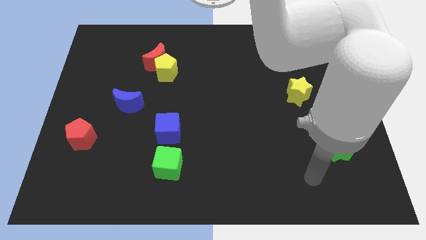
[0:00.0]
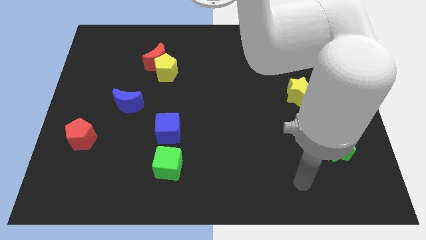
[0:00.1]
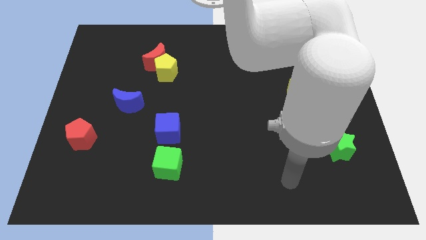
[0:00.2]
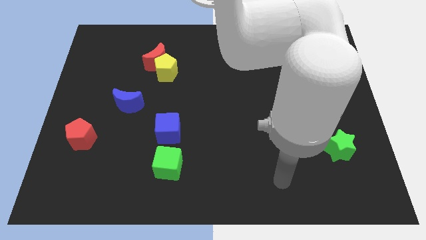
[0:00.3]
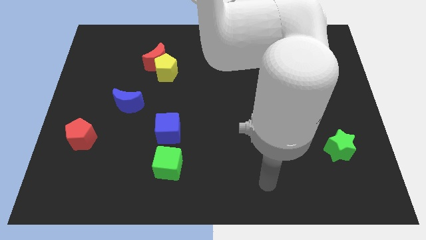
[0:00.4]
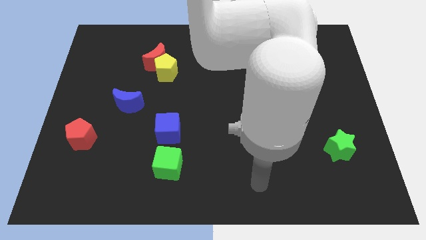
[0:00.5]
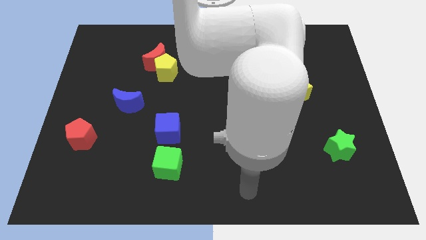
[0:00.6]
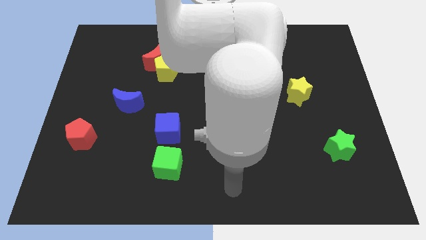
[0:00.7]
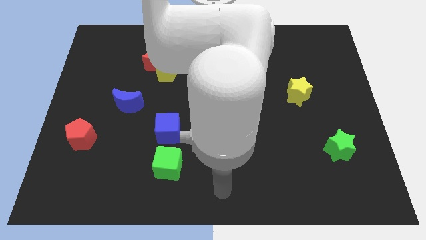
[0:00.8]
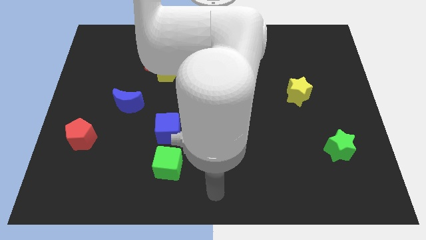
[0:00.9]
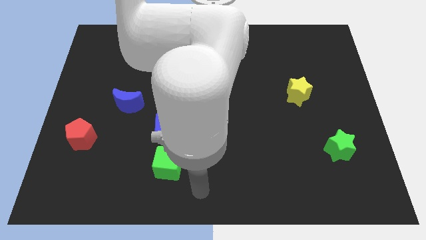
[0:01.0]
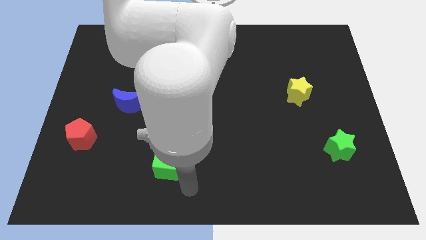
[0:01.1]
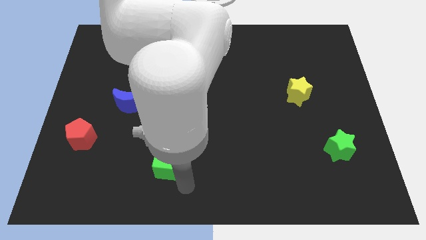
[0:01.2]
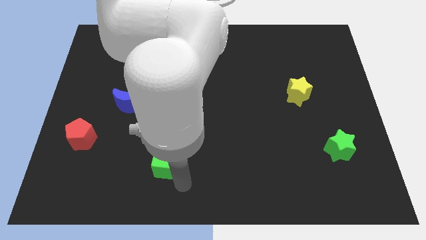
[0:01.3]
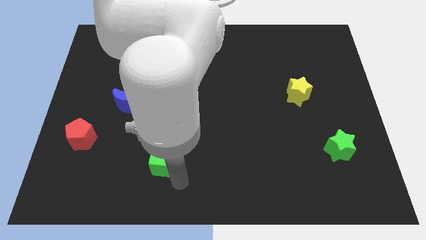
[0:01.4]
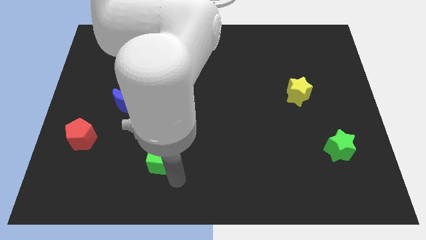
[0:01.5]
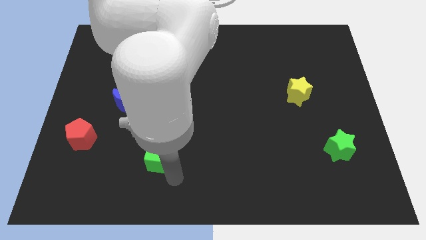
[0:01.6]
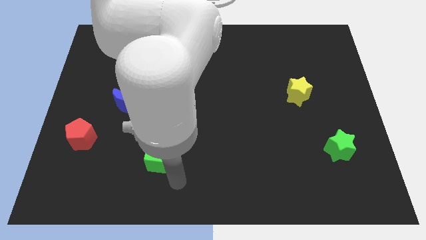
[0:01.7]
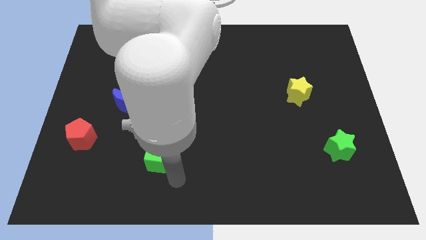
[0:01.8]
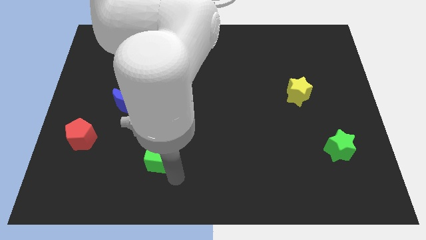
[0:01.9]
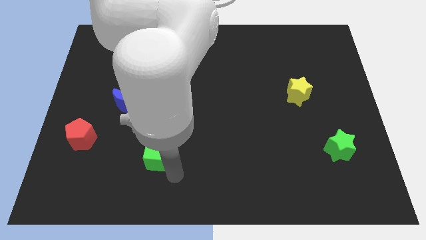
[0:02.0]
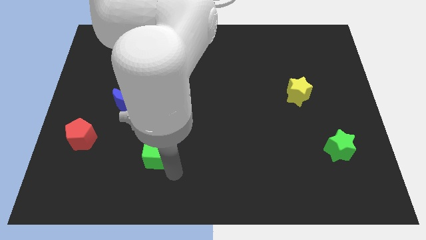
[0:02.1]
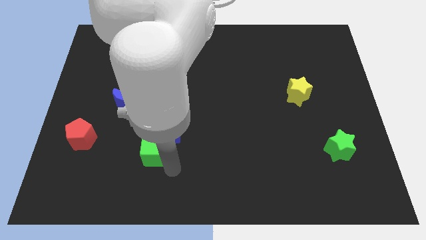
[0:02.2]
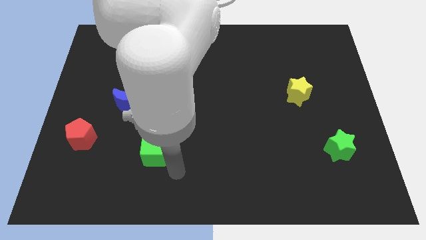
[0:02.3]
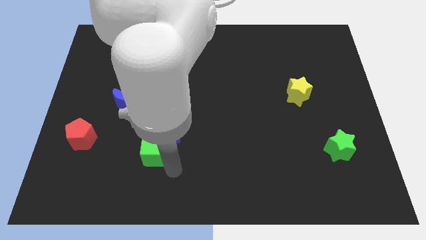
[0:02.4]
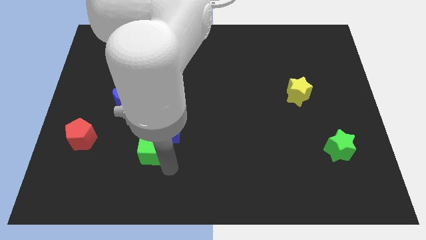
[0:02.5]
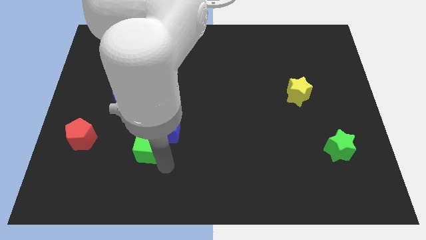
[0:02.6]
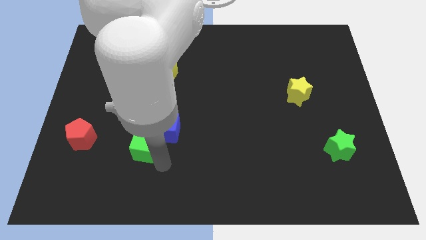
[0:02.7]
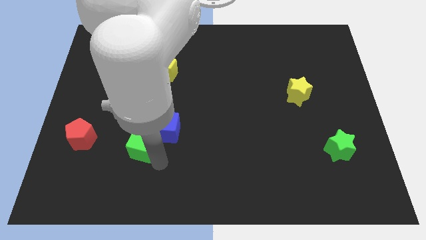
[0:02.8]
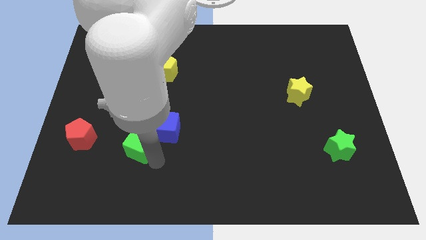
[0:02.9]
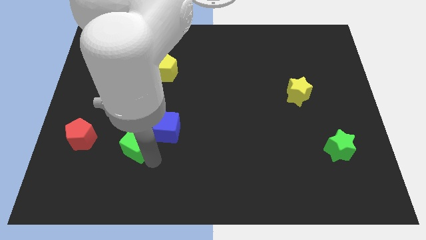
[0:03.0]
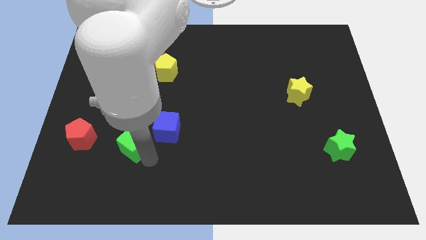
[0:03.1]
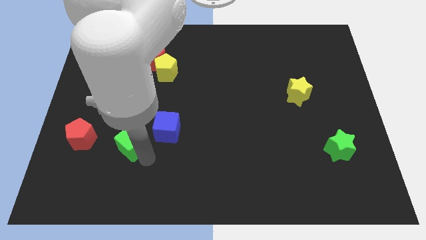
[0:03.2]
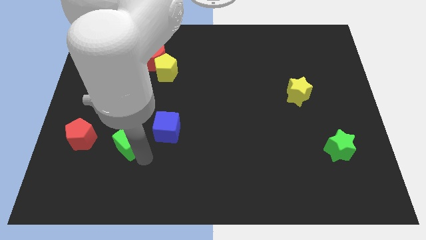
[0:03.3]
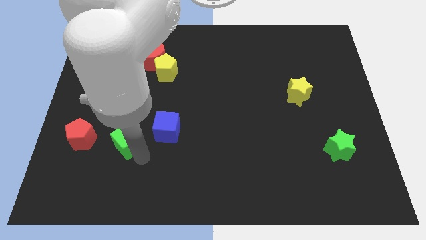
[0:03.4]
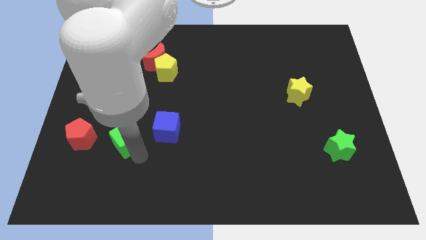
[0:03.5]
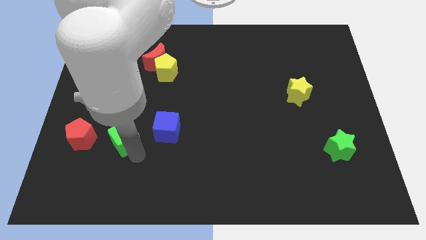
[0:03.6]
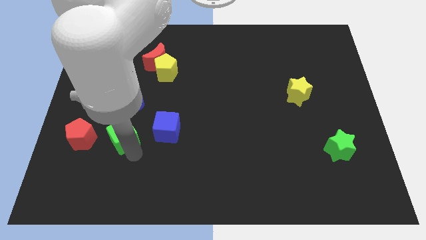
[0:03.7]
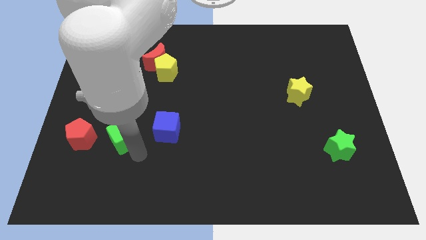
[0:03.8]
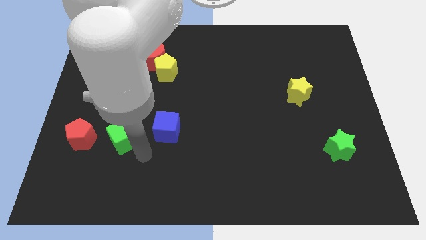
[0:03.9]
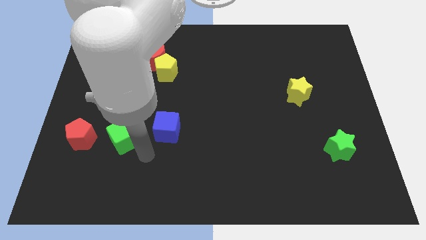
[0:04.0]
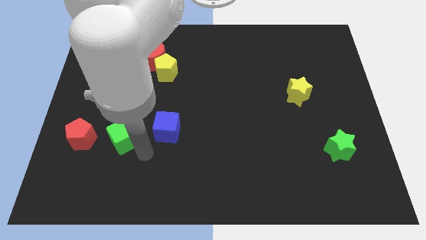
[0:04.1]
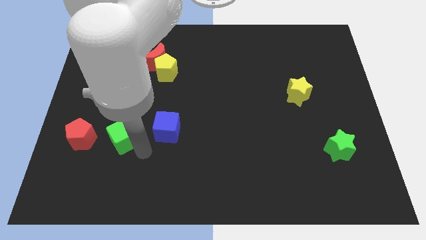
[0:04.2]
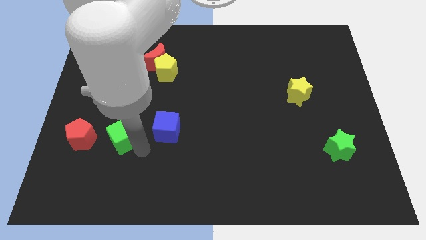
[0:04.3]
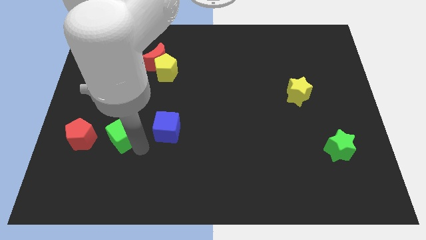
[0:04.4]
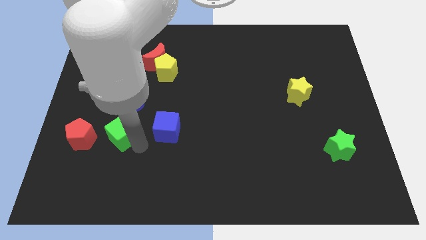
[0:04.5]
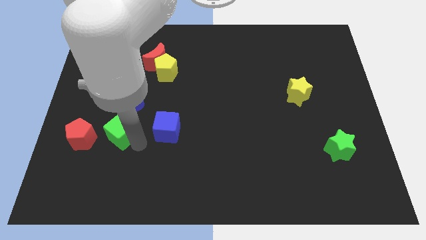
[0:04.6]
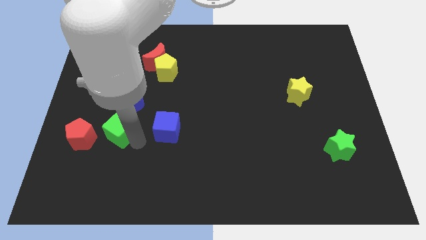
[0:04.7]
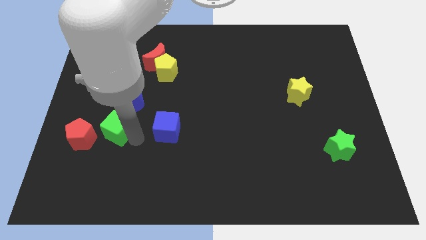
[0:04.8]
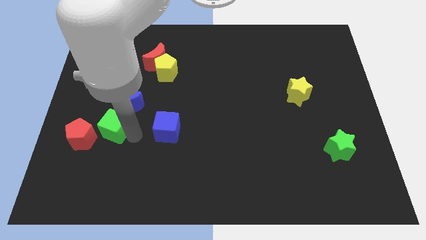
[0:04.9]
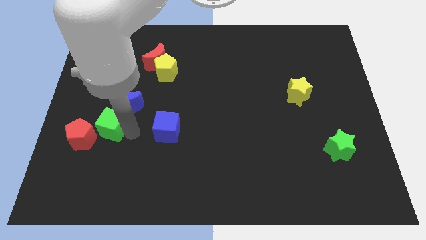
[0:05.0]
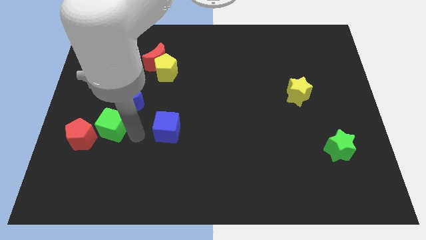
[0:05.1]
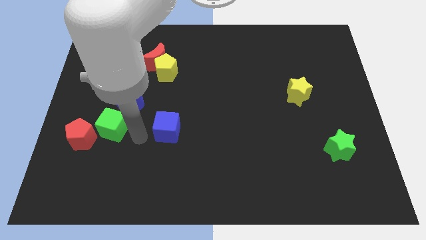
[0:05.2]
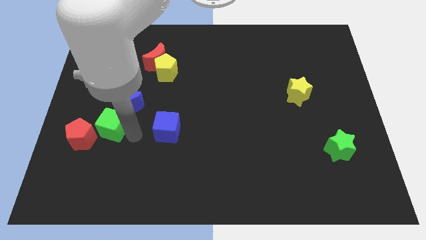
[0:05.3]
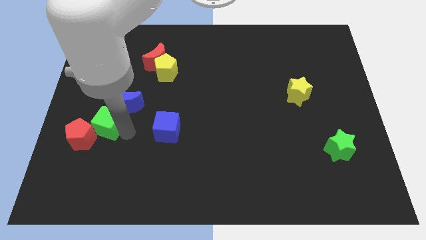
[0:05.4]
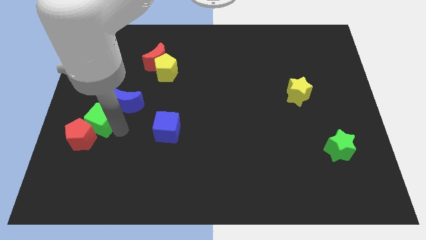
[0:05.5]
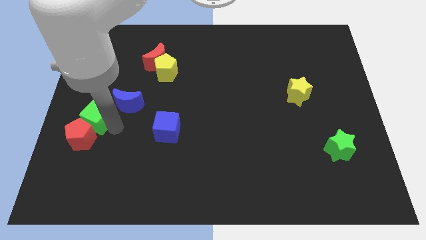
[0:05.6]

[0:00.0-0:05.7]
put the green cube to the left side

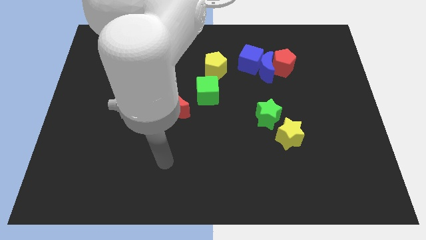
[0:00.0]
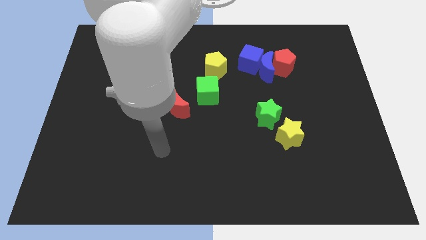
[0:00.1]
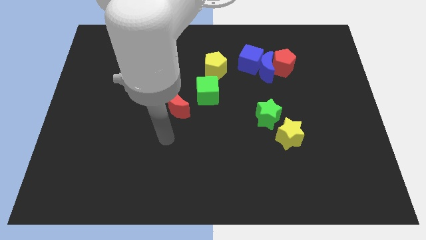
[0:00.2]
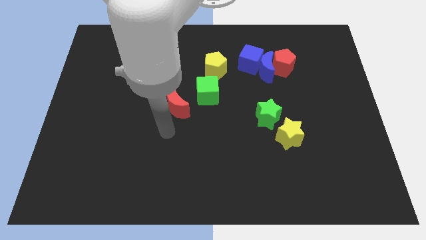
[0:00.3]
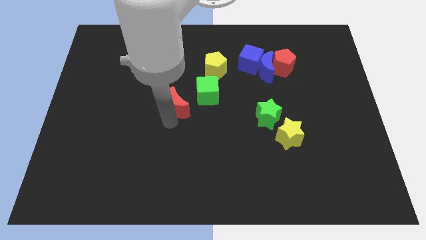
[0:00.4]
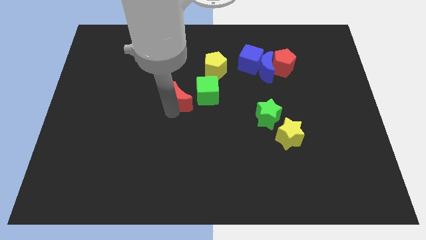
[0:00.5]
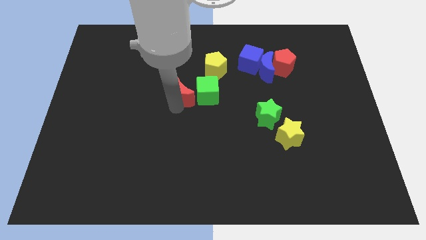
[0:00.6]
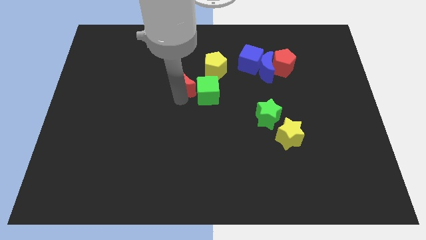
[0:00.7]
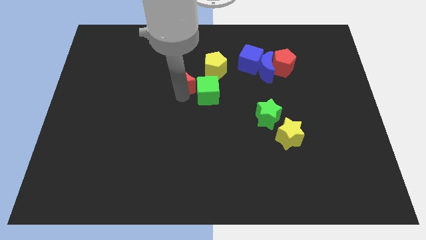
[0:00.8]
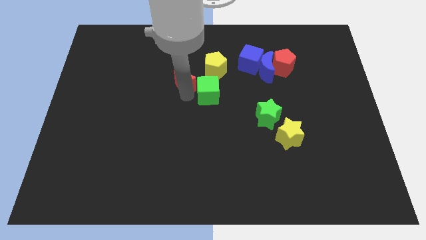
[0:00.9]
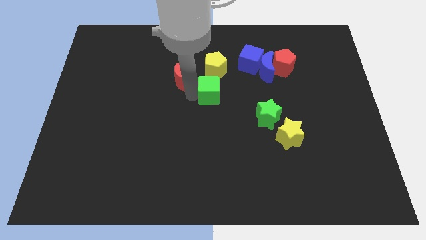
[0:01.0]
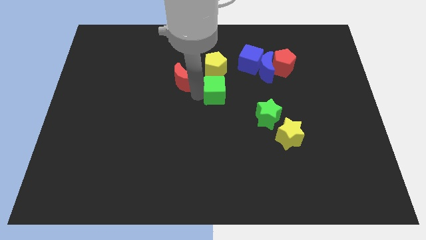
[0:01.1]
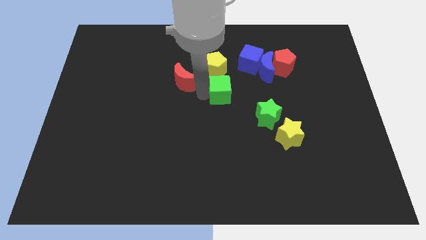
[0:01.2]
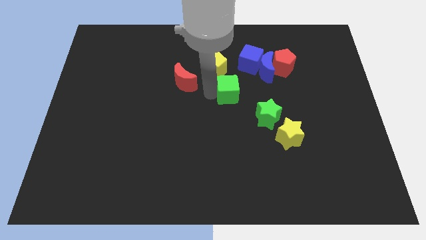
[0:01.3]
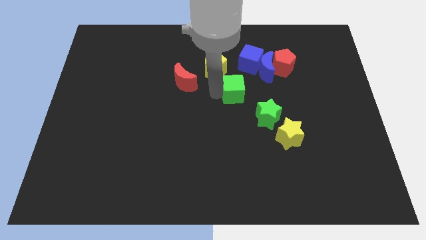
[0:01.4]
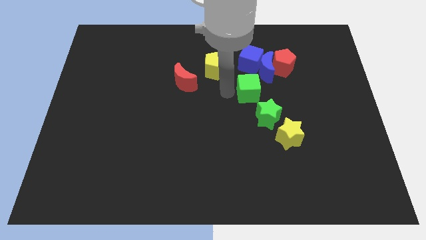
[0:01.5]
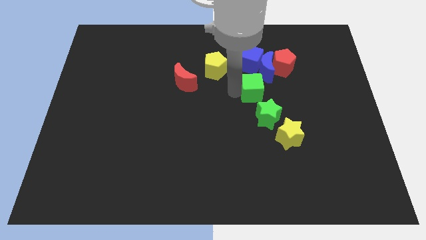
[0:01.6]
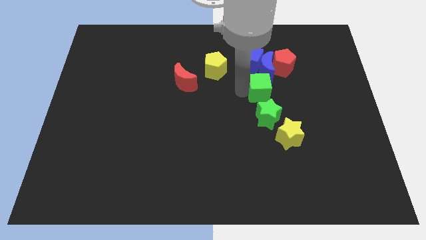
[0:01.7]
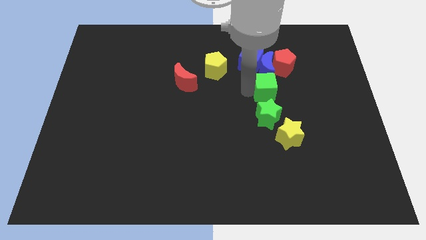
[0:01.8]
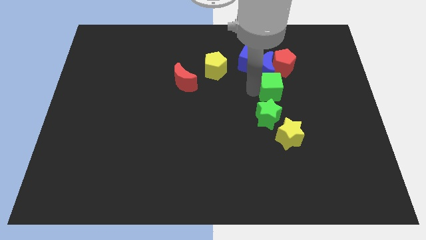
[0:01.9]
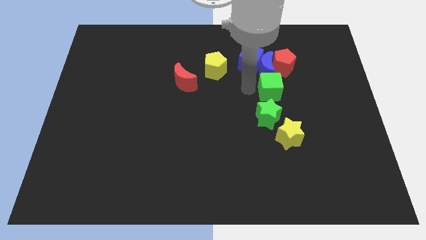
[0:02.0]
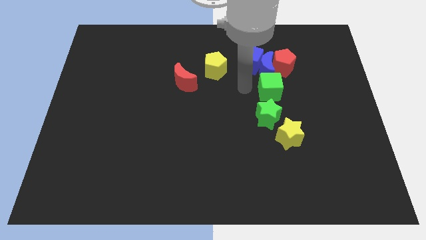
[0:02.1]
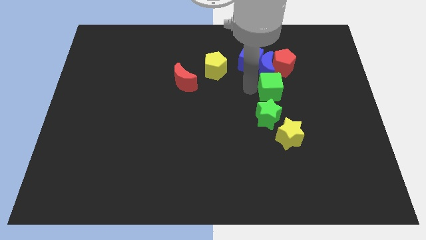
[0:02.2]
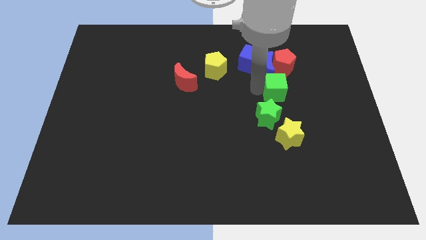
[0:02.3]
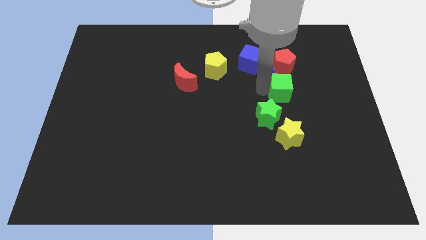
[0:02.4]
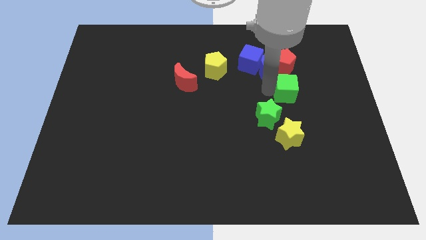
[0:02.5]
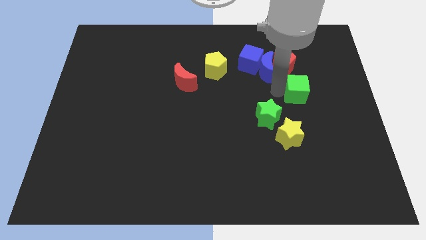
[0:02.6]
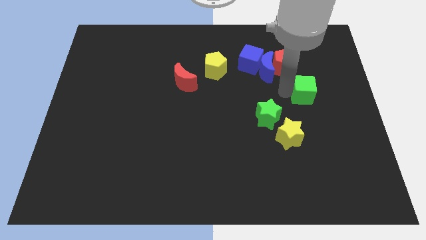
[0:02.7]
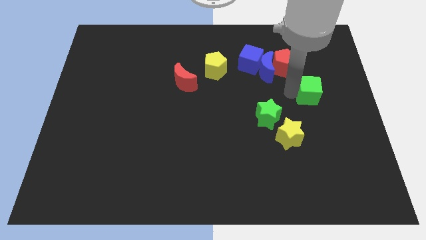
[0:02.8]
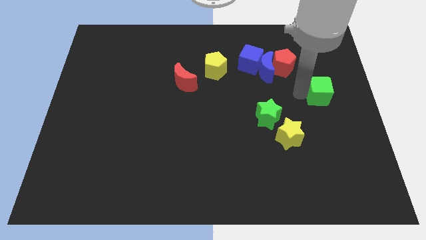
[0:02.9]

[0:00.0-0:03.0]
slide the green cube to the center right
